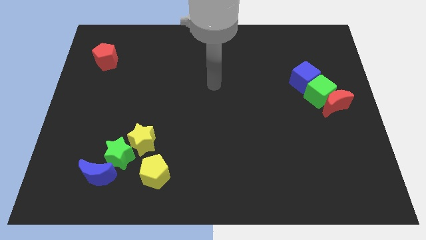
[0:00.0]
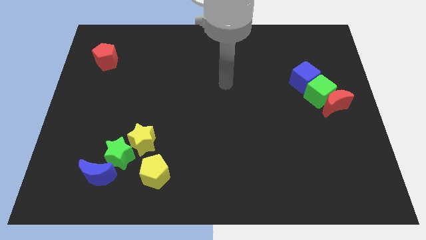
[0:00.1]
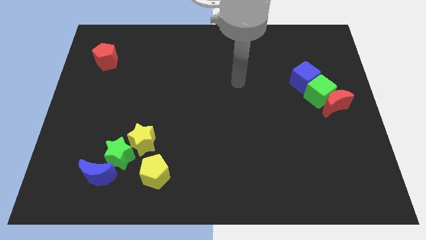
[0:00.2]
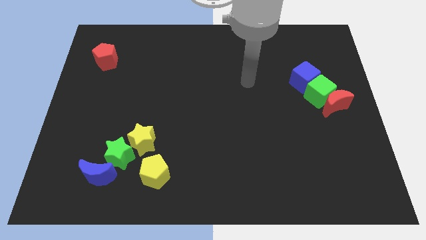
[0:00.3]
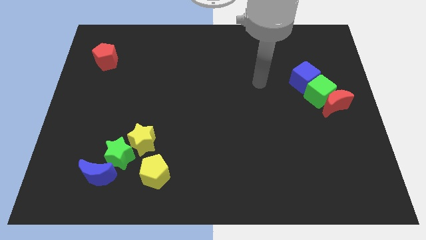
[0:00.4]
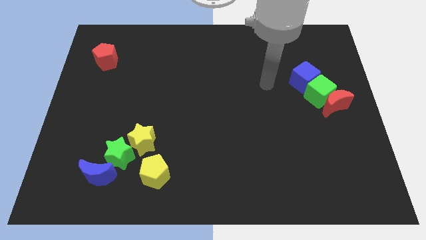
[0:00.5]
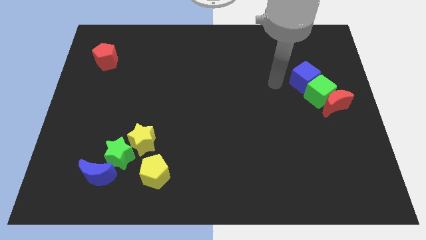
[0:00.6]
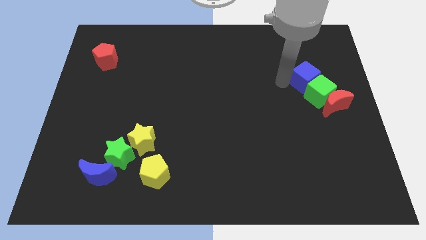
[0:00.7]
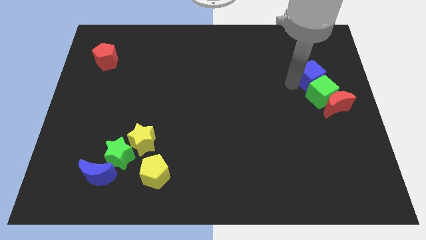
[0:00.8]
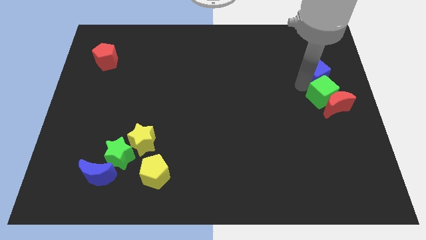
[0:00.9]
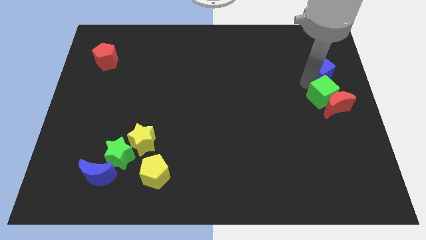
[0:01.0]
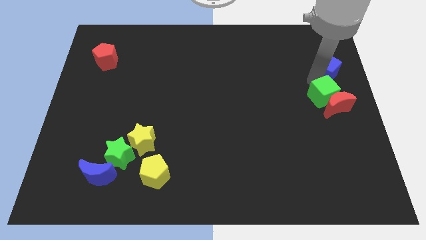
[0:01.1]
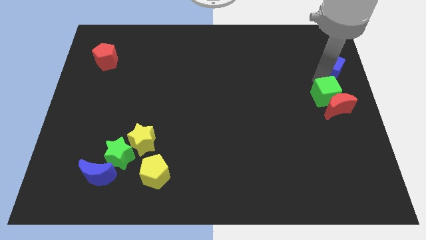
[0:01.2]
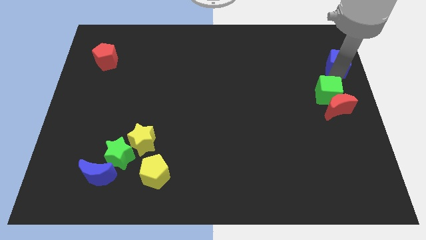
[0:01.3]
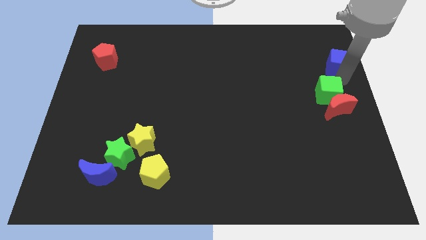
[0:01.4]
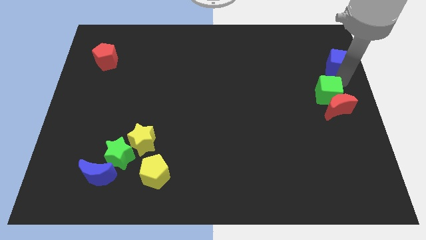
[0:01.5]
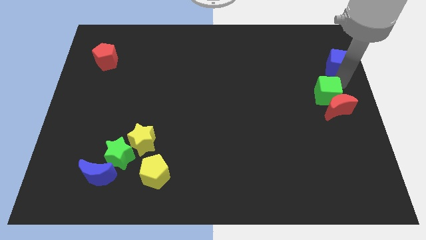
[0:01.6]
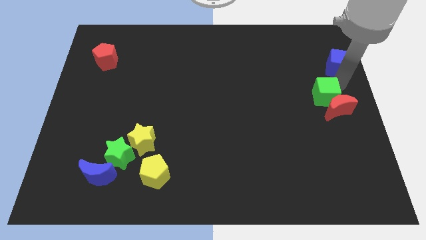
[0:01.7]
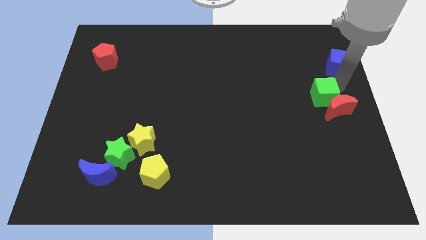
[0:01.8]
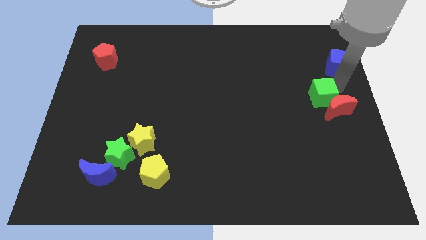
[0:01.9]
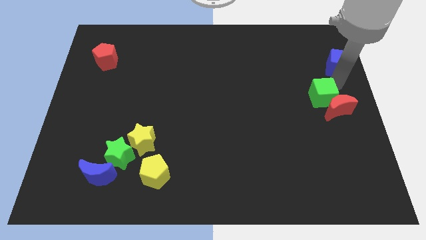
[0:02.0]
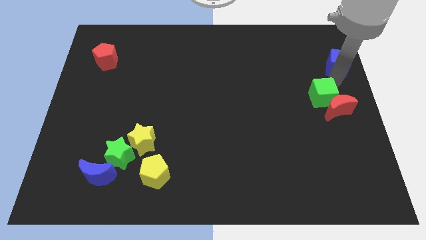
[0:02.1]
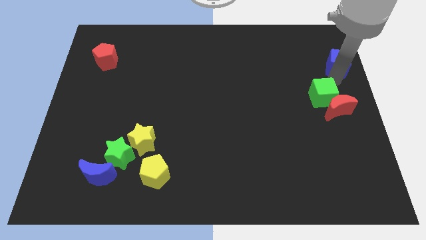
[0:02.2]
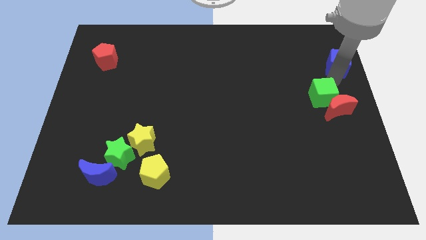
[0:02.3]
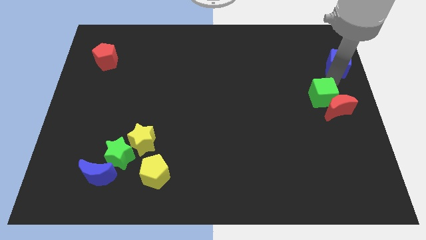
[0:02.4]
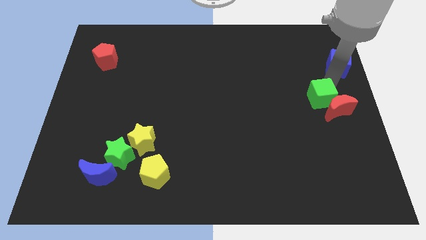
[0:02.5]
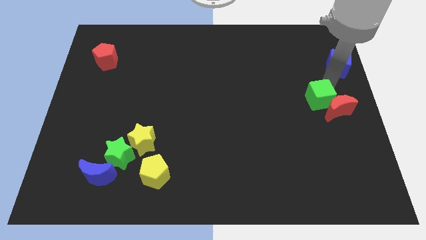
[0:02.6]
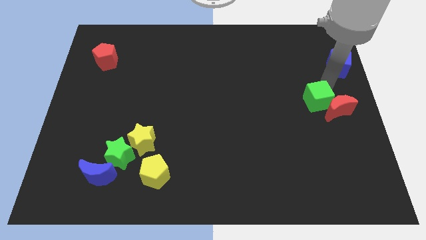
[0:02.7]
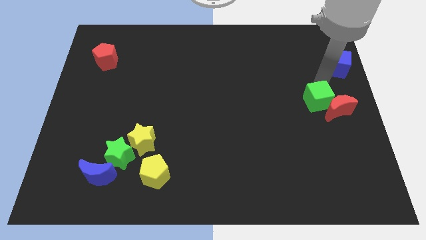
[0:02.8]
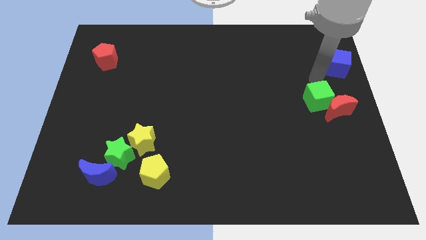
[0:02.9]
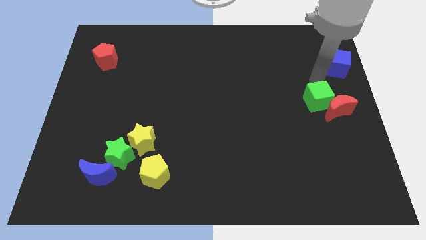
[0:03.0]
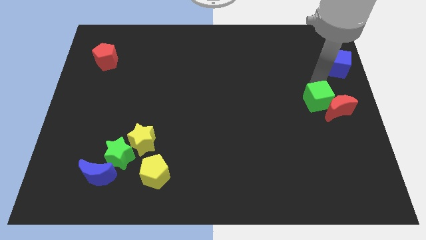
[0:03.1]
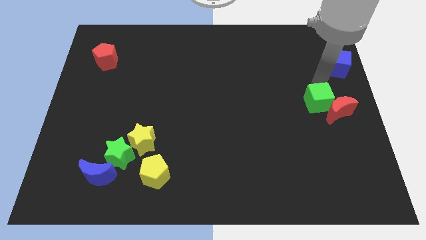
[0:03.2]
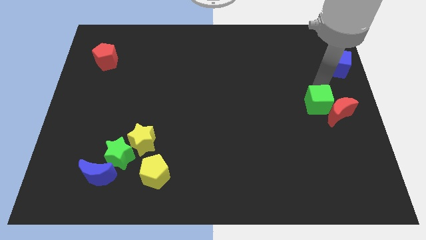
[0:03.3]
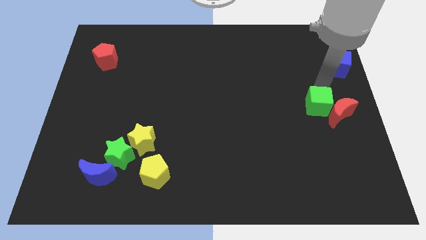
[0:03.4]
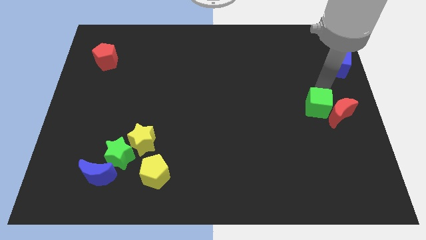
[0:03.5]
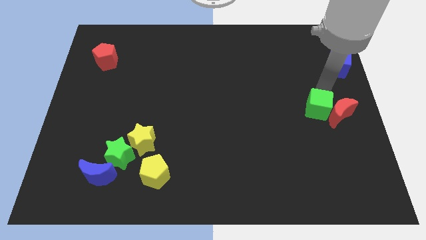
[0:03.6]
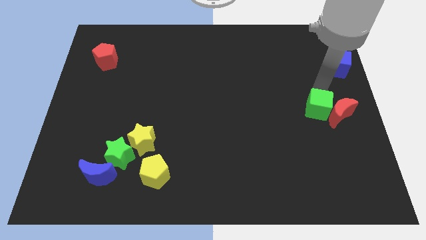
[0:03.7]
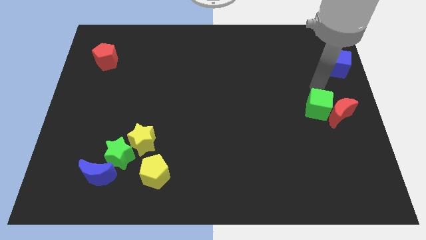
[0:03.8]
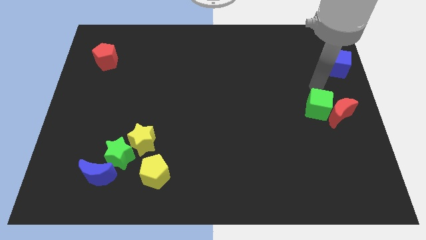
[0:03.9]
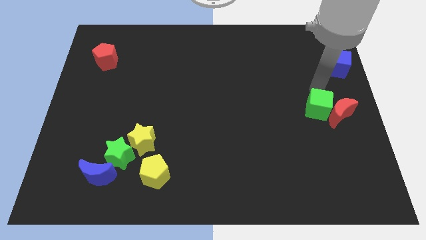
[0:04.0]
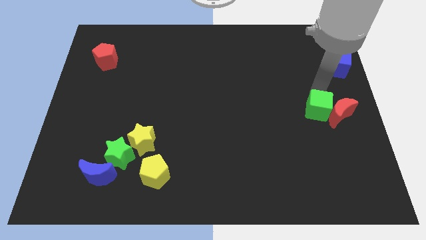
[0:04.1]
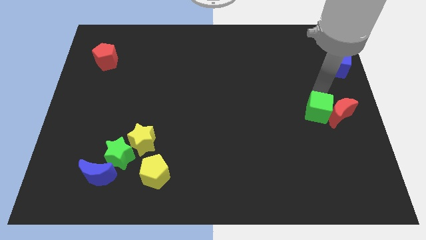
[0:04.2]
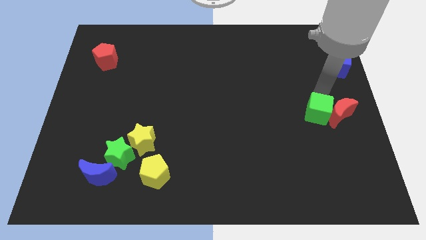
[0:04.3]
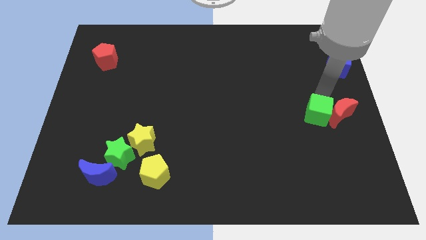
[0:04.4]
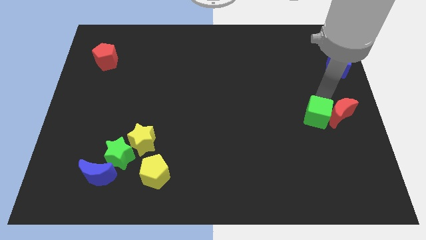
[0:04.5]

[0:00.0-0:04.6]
separate the green cube from the red moon and blue cube

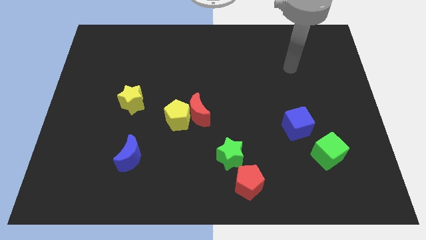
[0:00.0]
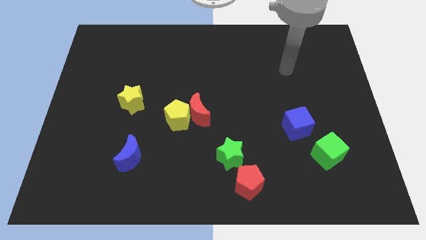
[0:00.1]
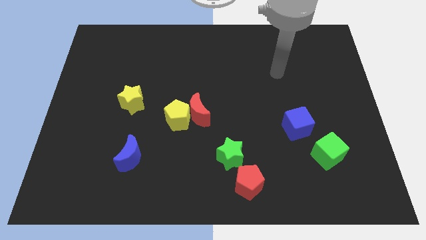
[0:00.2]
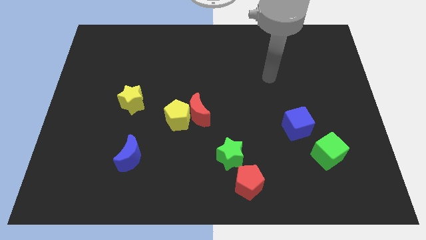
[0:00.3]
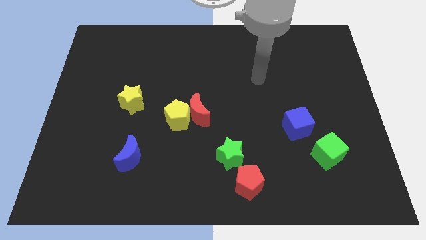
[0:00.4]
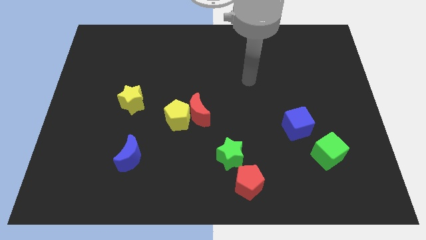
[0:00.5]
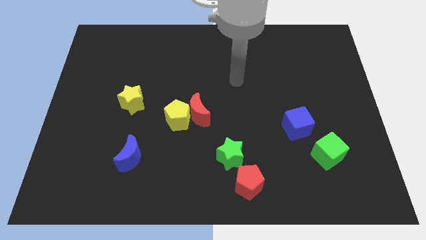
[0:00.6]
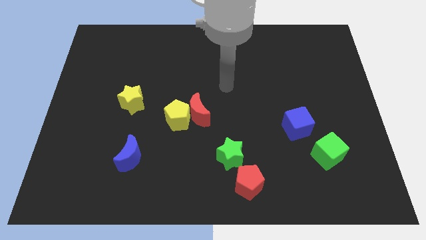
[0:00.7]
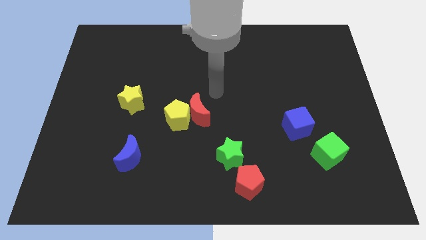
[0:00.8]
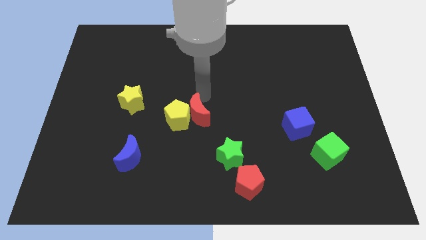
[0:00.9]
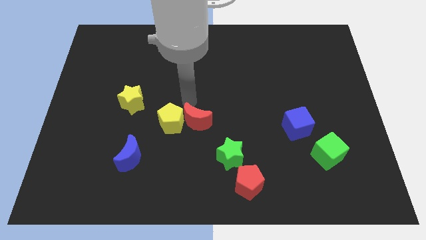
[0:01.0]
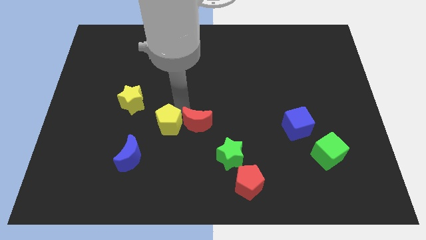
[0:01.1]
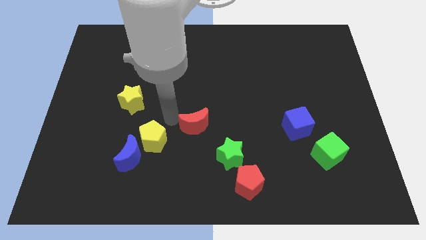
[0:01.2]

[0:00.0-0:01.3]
separate the red moon from the yellow pentagon

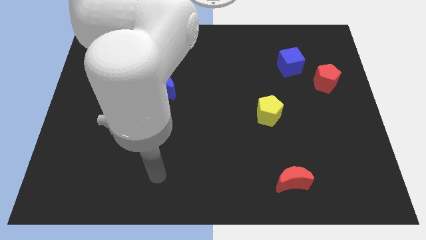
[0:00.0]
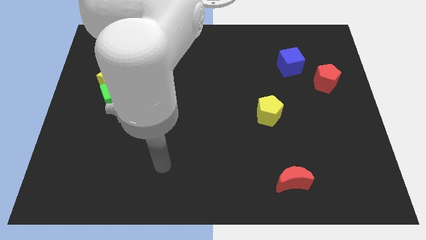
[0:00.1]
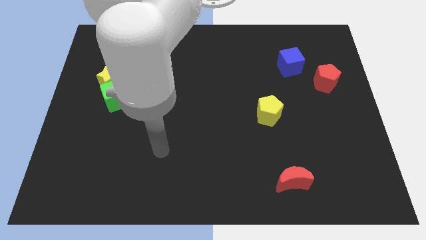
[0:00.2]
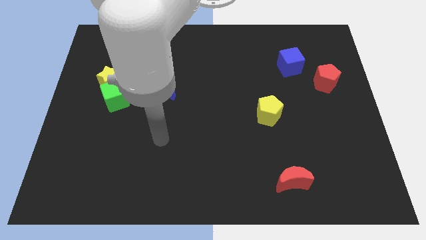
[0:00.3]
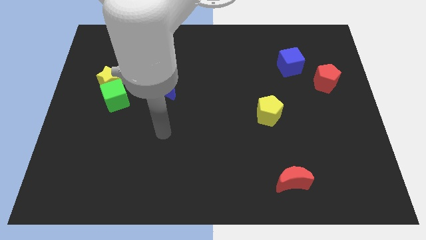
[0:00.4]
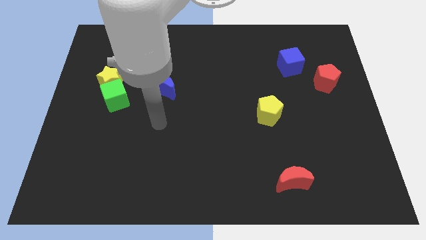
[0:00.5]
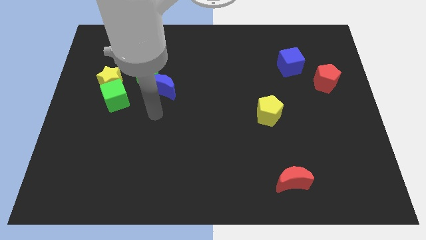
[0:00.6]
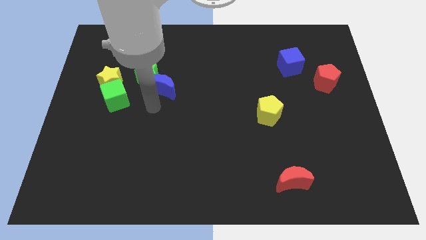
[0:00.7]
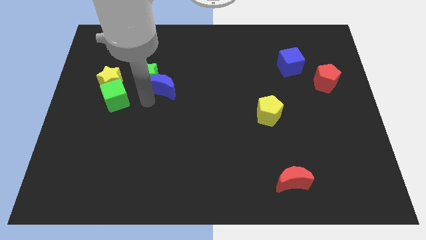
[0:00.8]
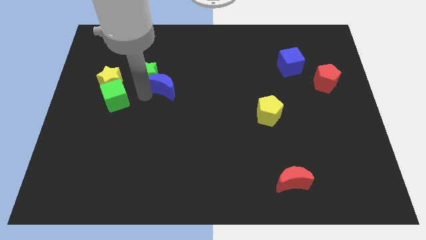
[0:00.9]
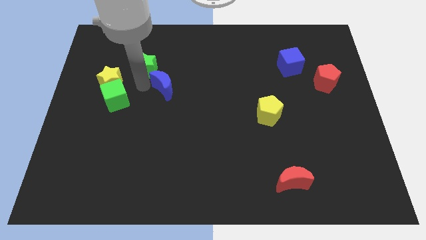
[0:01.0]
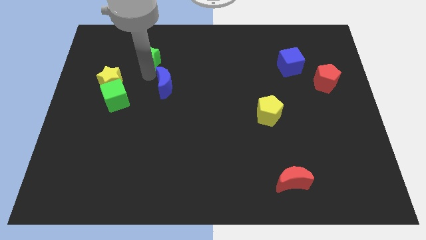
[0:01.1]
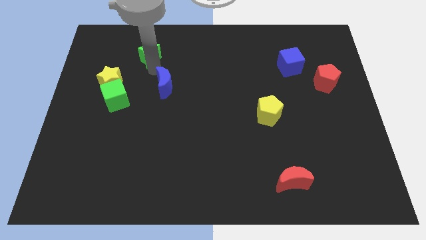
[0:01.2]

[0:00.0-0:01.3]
separate the blue moon from the green star

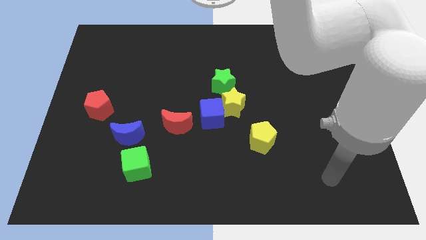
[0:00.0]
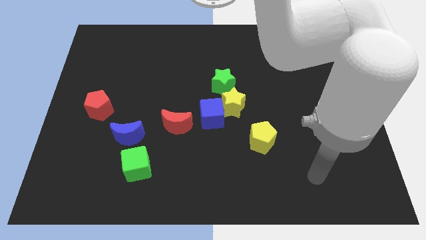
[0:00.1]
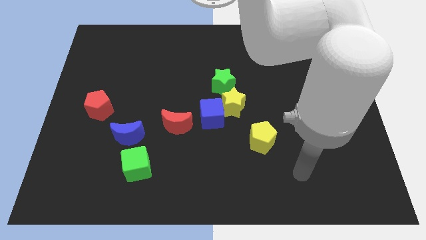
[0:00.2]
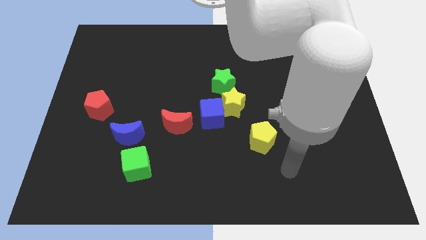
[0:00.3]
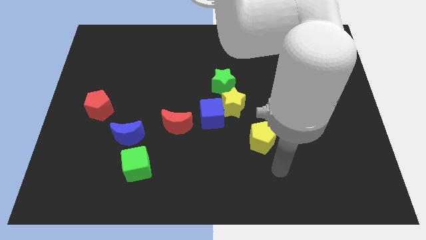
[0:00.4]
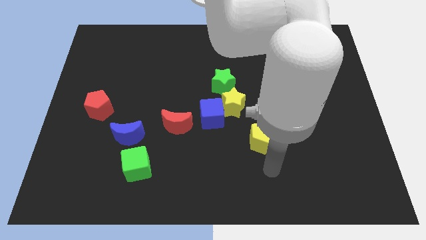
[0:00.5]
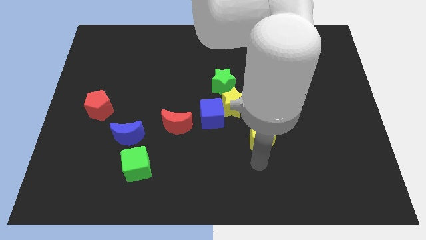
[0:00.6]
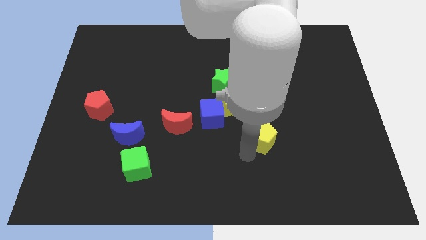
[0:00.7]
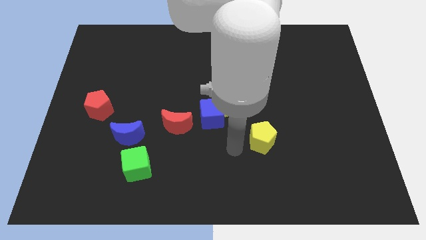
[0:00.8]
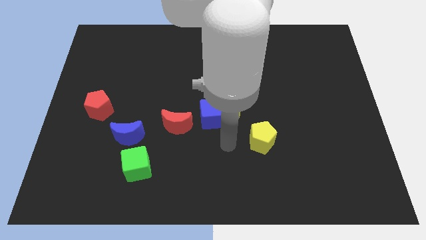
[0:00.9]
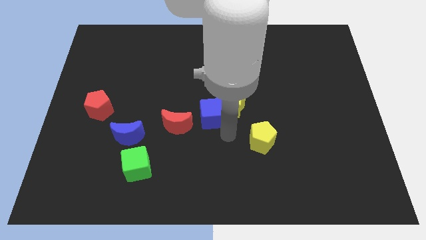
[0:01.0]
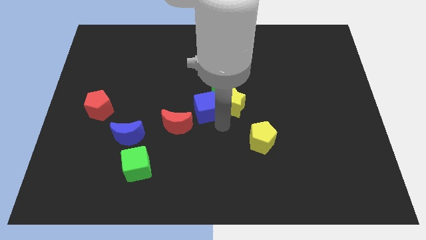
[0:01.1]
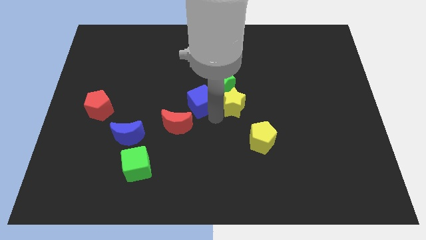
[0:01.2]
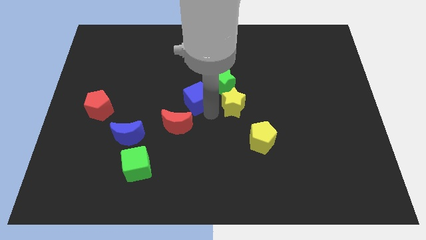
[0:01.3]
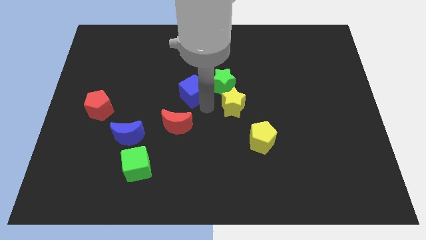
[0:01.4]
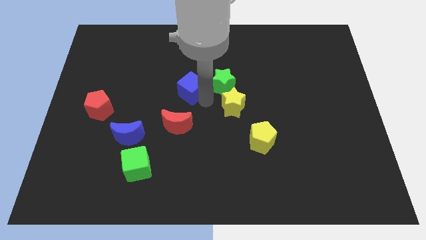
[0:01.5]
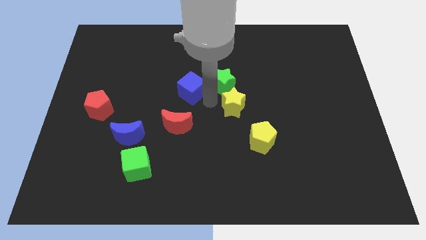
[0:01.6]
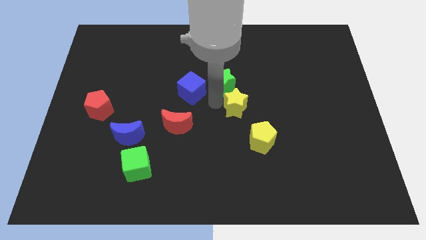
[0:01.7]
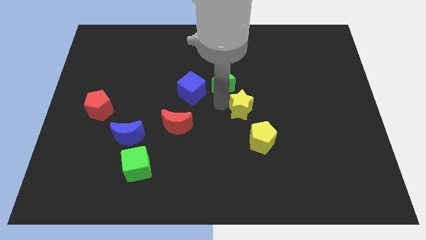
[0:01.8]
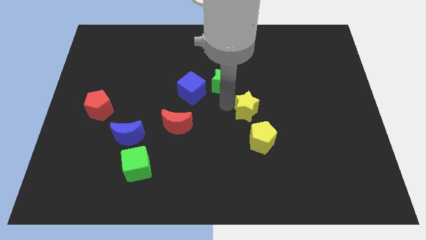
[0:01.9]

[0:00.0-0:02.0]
pull the yellow star apart from the blue cube and green star

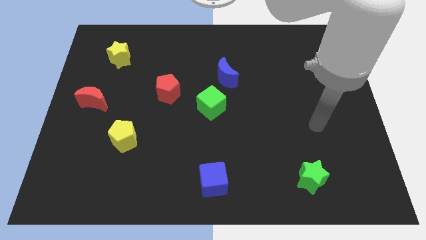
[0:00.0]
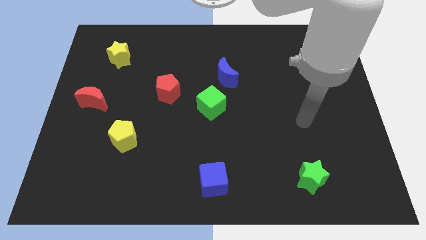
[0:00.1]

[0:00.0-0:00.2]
separate the blue moon from the green cube

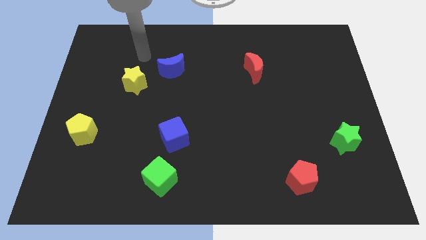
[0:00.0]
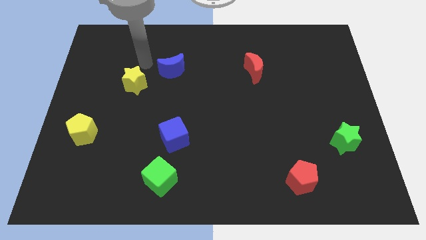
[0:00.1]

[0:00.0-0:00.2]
pull the blue moon apart from the yellow star
